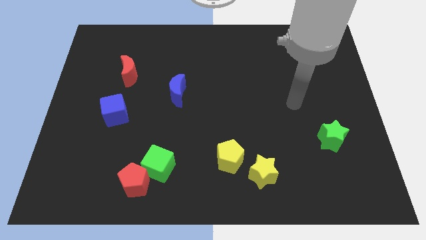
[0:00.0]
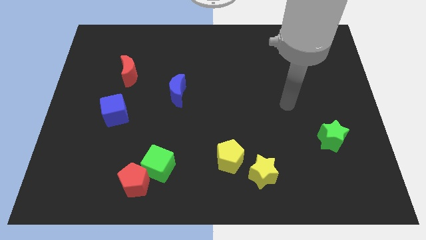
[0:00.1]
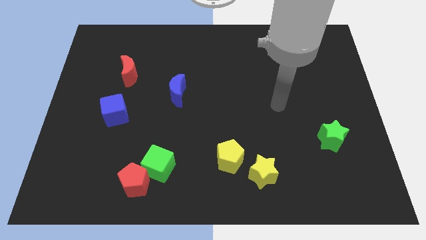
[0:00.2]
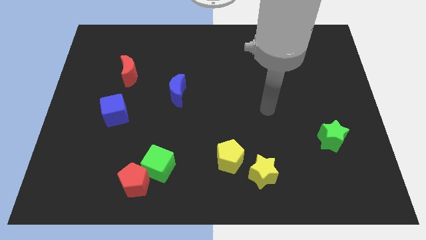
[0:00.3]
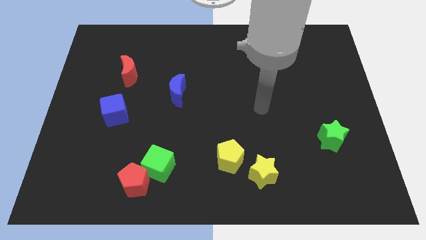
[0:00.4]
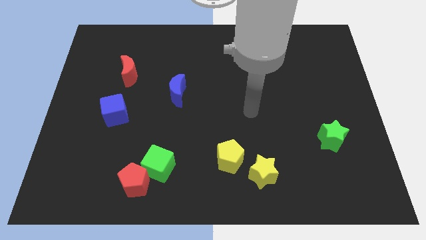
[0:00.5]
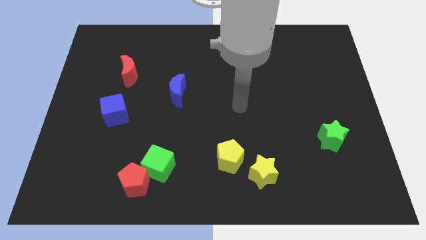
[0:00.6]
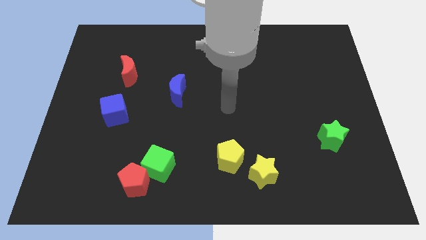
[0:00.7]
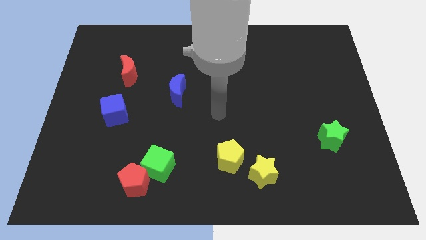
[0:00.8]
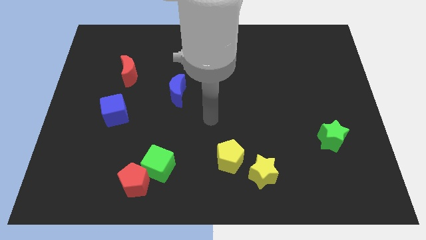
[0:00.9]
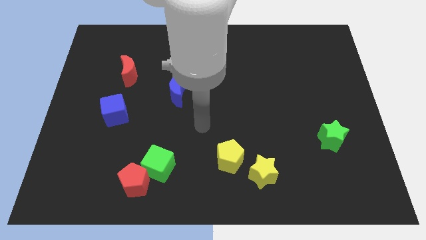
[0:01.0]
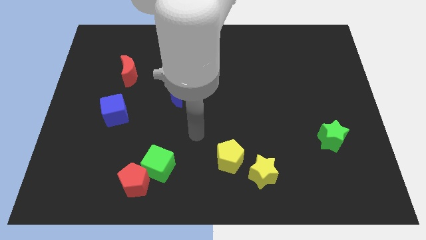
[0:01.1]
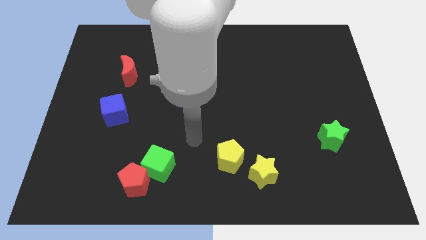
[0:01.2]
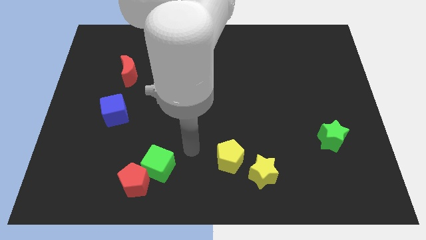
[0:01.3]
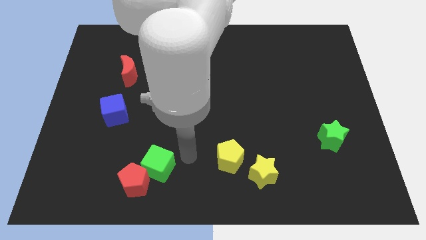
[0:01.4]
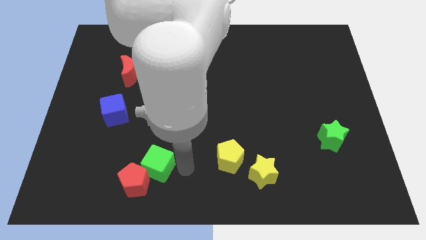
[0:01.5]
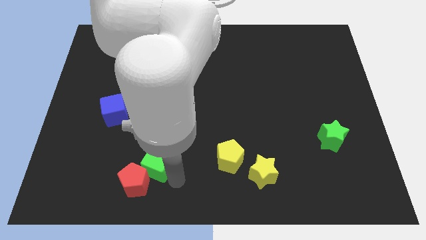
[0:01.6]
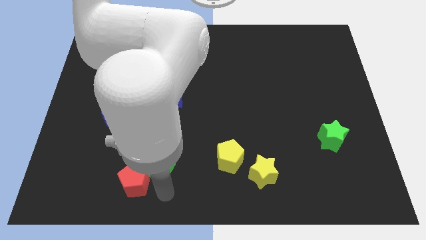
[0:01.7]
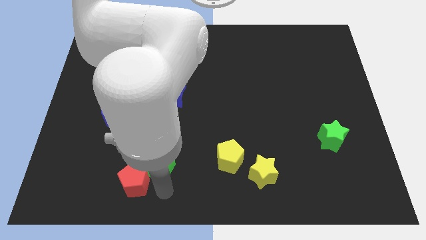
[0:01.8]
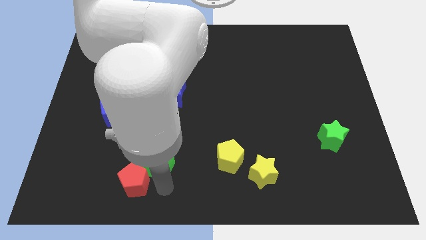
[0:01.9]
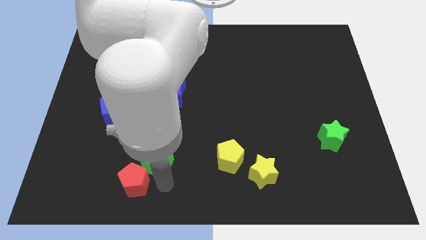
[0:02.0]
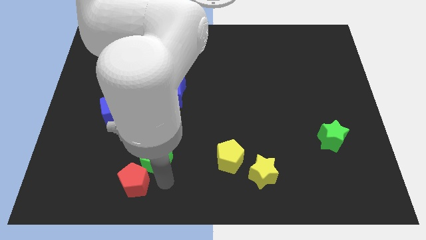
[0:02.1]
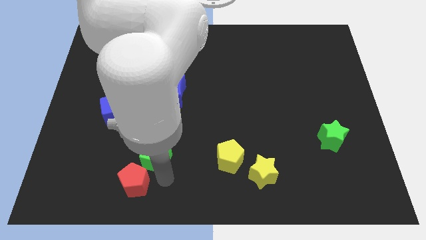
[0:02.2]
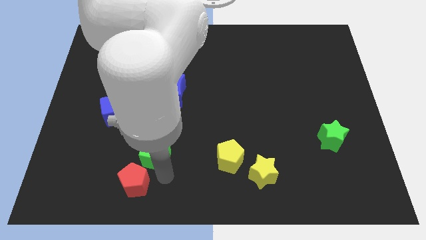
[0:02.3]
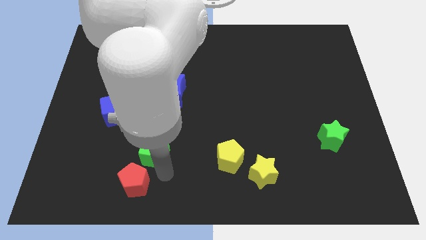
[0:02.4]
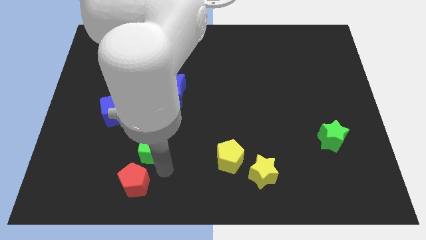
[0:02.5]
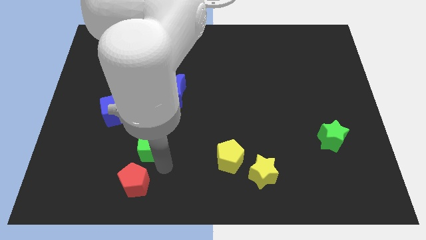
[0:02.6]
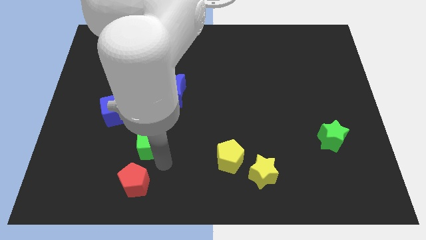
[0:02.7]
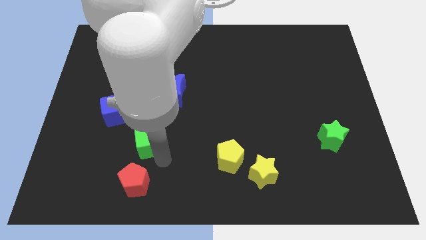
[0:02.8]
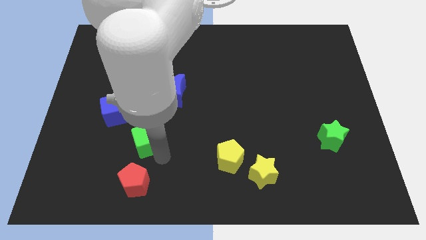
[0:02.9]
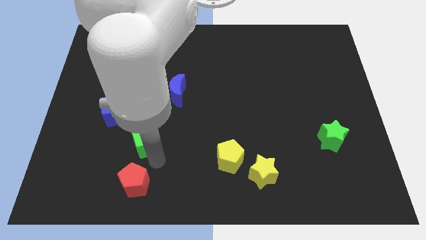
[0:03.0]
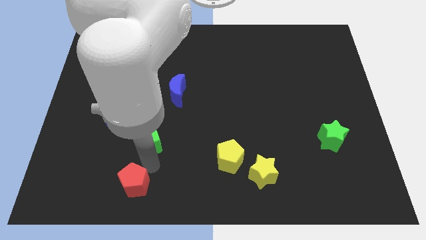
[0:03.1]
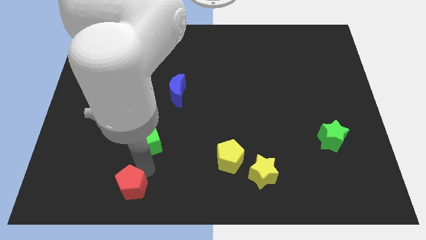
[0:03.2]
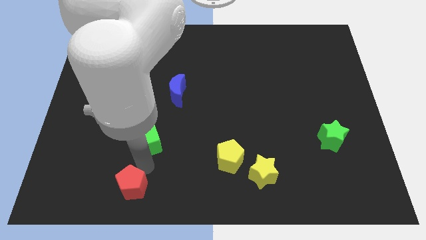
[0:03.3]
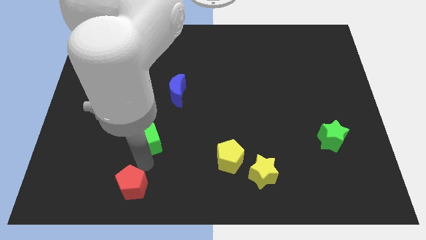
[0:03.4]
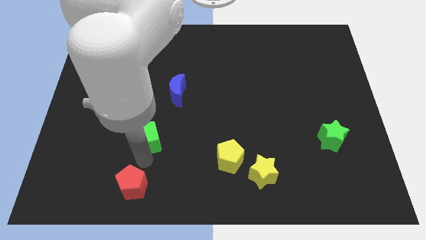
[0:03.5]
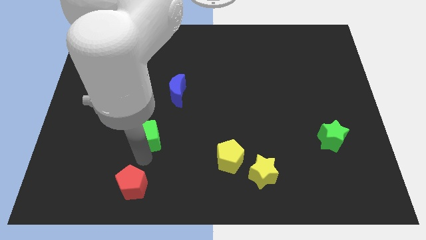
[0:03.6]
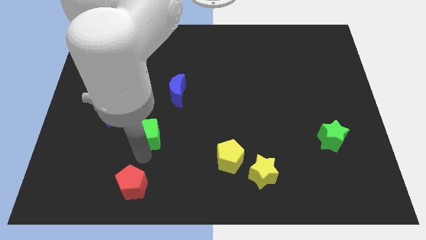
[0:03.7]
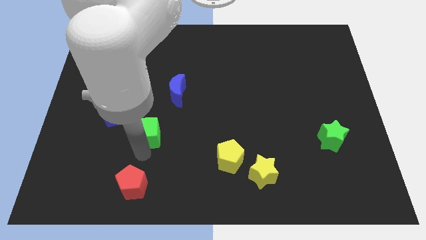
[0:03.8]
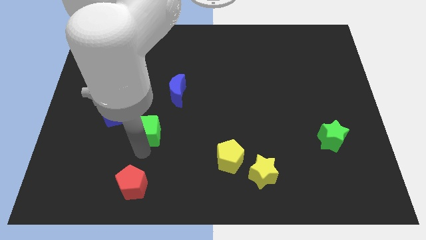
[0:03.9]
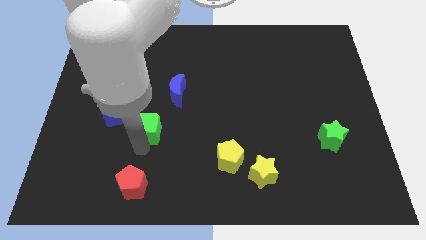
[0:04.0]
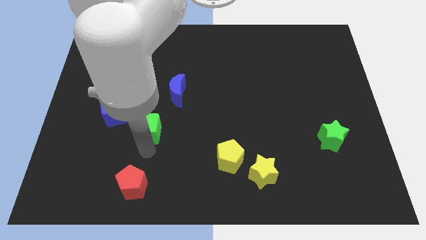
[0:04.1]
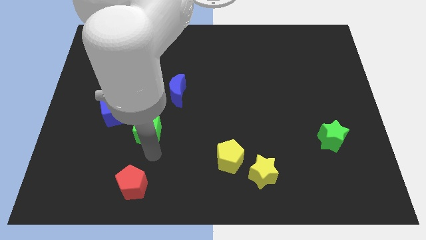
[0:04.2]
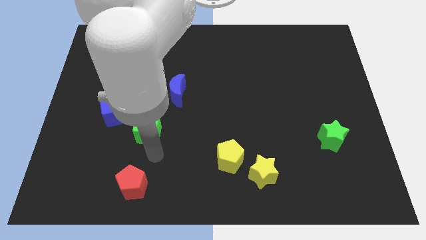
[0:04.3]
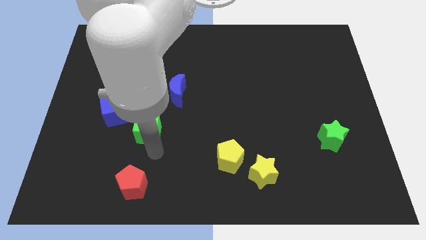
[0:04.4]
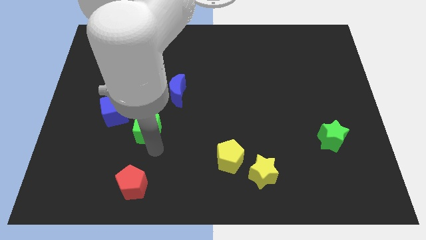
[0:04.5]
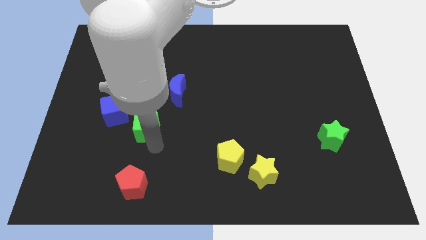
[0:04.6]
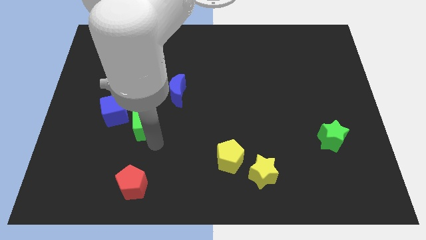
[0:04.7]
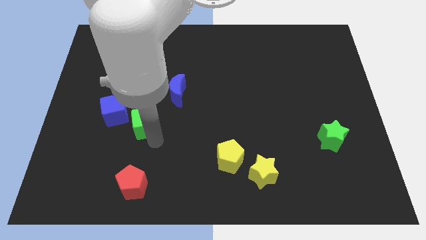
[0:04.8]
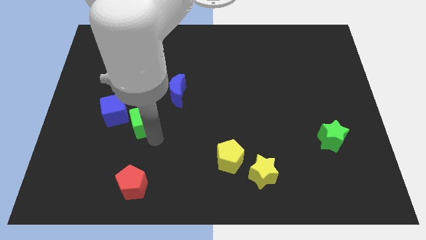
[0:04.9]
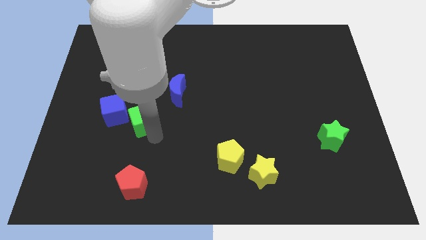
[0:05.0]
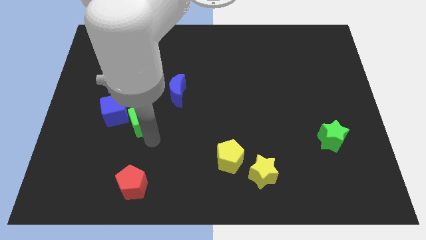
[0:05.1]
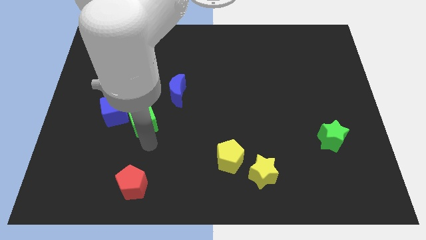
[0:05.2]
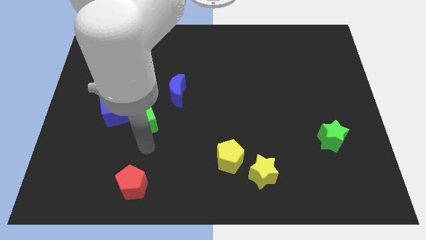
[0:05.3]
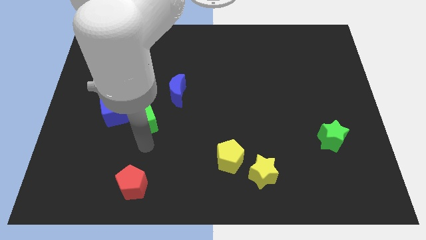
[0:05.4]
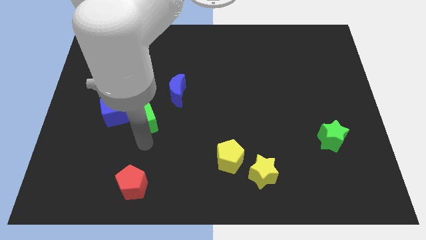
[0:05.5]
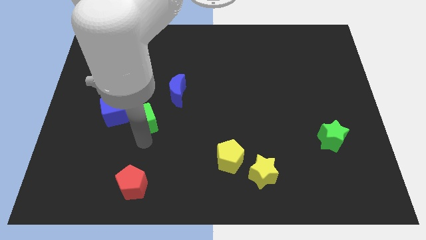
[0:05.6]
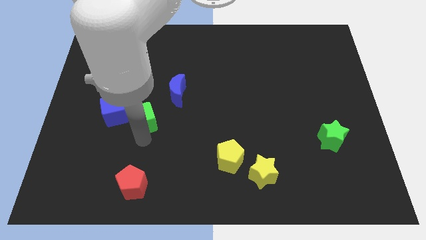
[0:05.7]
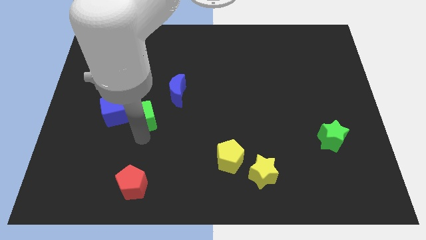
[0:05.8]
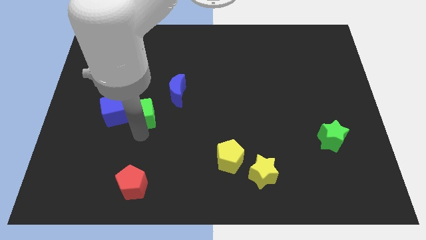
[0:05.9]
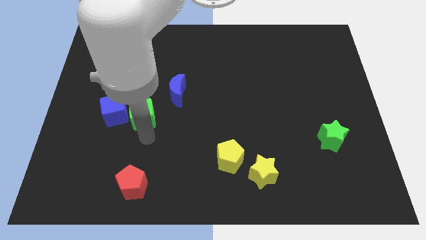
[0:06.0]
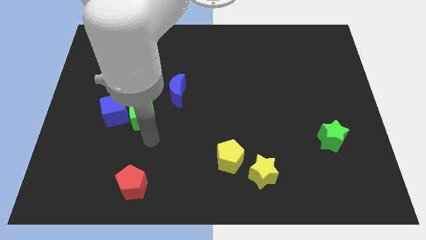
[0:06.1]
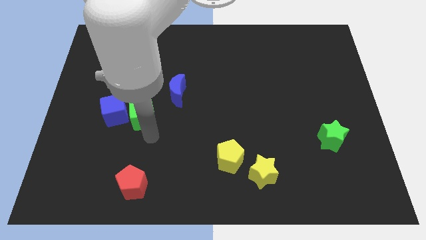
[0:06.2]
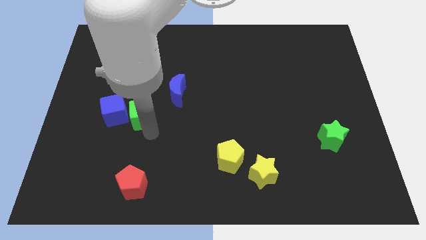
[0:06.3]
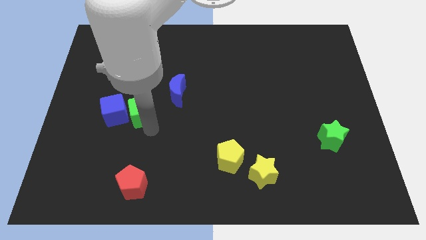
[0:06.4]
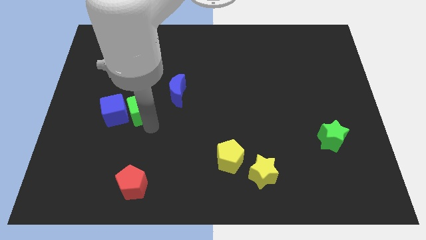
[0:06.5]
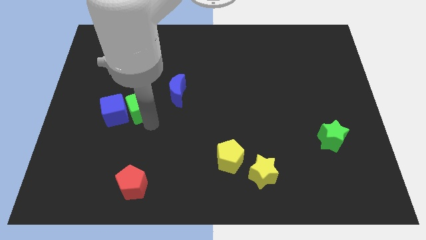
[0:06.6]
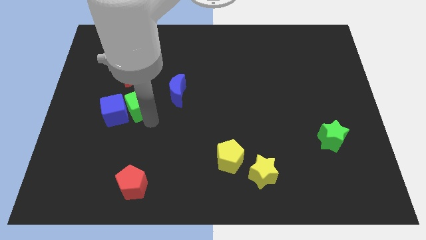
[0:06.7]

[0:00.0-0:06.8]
put the green cube just left of the blue moon
